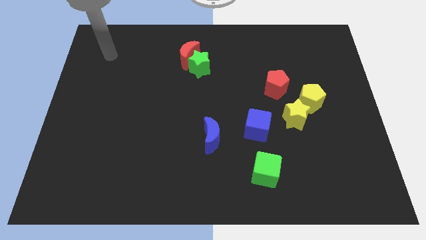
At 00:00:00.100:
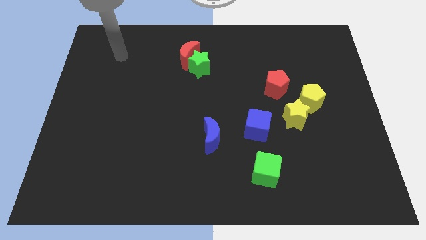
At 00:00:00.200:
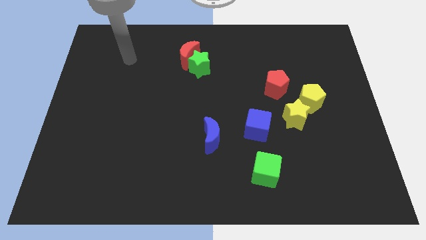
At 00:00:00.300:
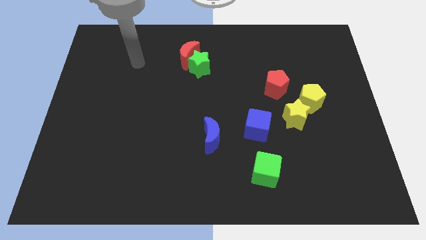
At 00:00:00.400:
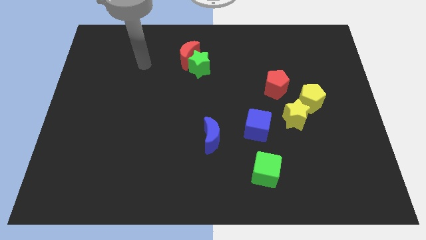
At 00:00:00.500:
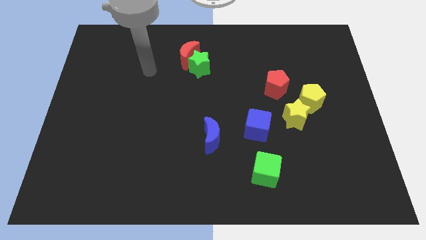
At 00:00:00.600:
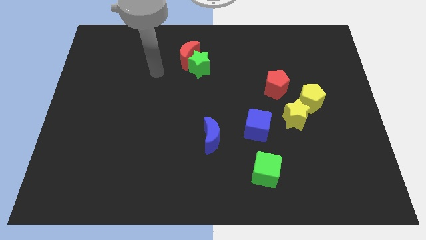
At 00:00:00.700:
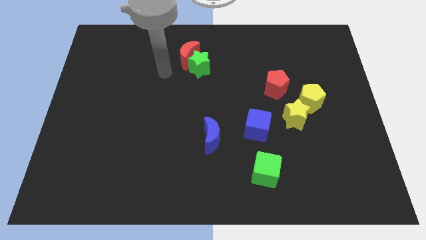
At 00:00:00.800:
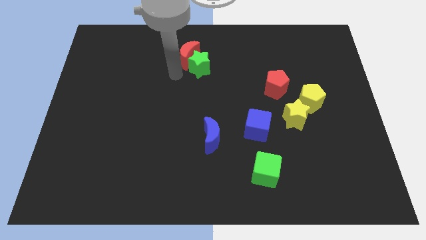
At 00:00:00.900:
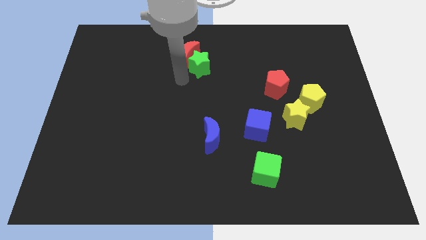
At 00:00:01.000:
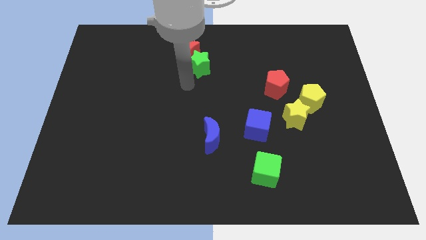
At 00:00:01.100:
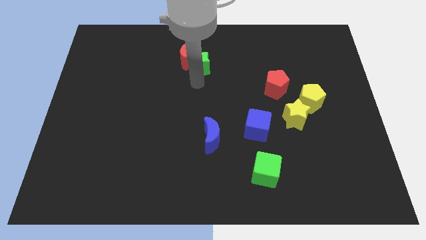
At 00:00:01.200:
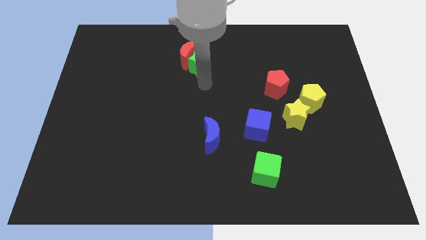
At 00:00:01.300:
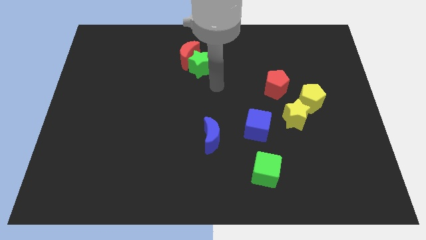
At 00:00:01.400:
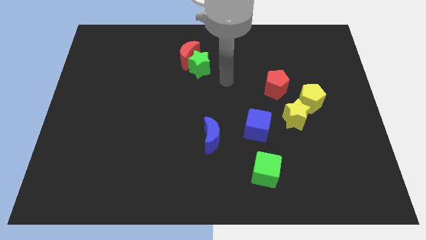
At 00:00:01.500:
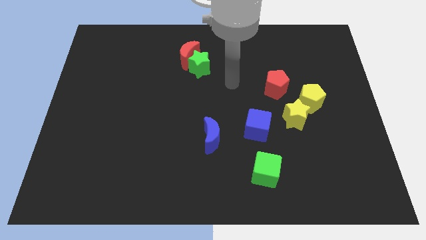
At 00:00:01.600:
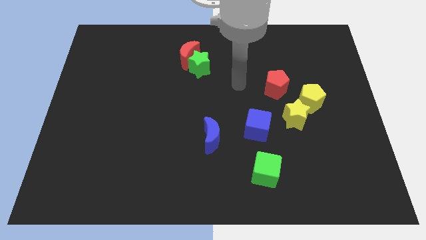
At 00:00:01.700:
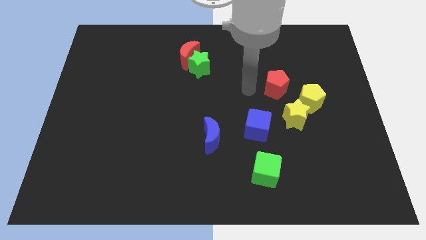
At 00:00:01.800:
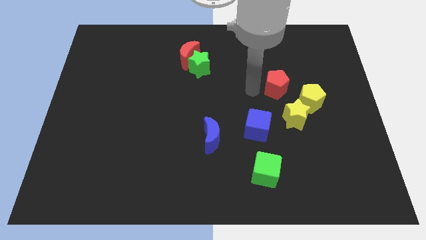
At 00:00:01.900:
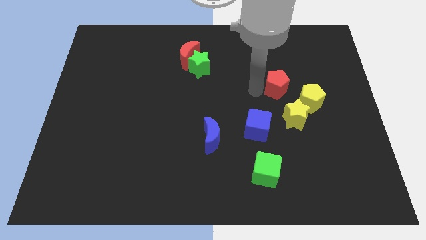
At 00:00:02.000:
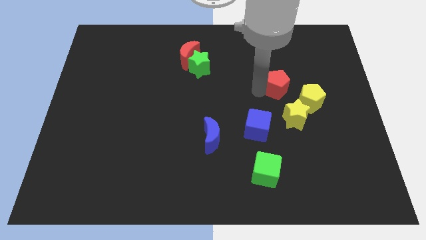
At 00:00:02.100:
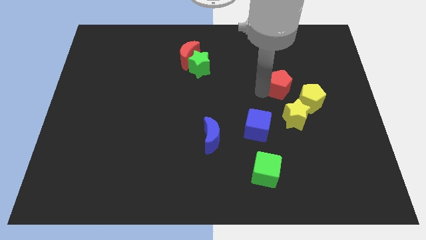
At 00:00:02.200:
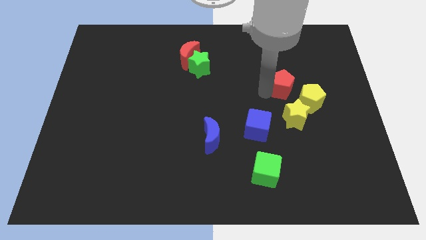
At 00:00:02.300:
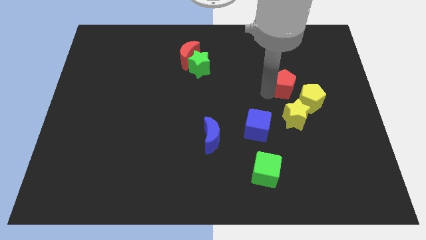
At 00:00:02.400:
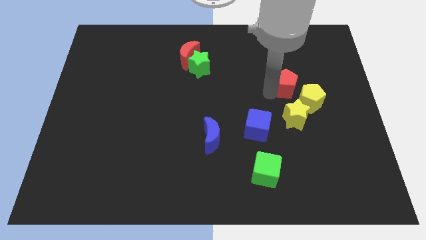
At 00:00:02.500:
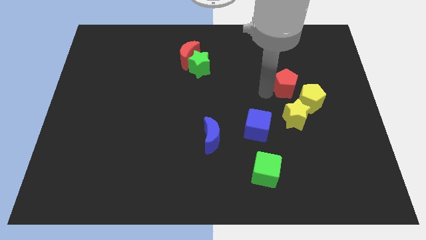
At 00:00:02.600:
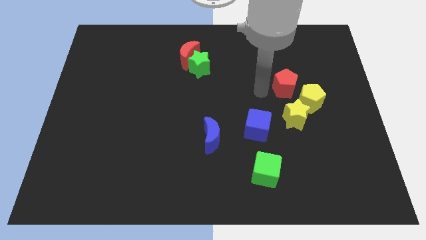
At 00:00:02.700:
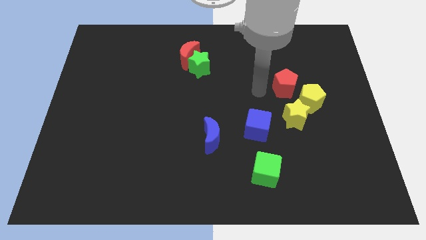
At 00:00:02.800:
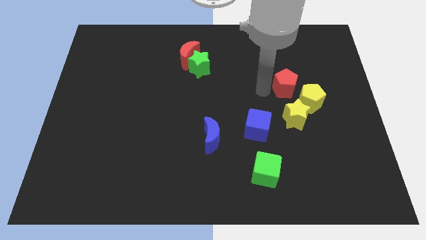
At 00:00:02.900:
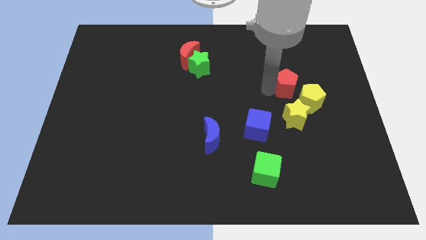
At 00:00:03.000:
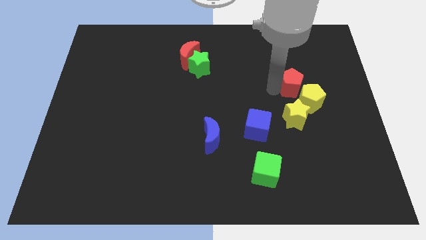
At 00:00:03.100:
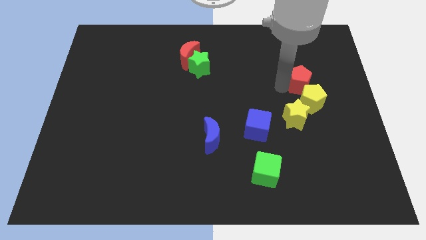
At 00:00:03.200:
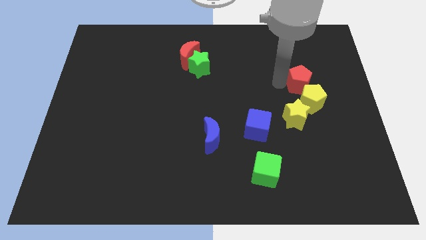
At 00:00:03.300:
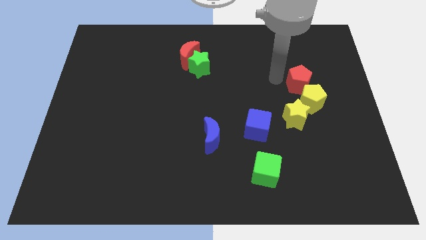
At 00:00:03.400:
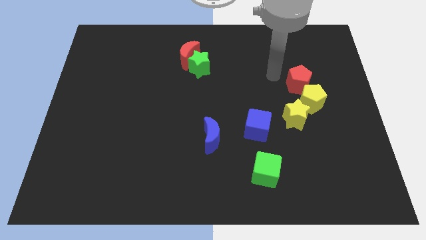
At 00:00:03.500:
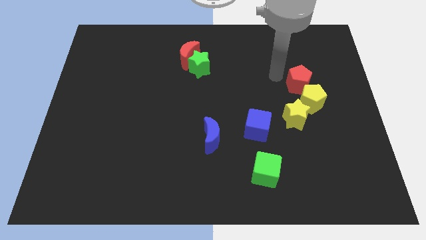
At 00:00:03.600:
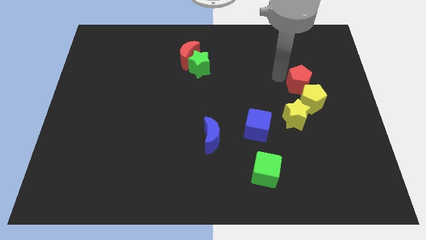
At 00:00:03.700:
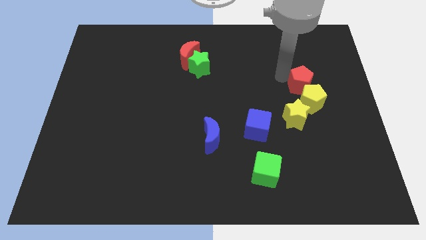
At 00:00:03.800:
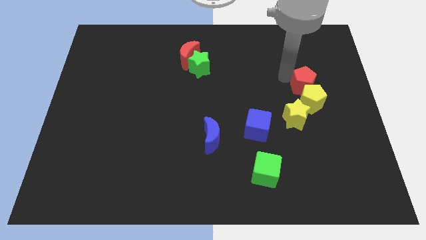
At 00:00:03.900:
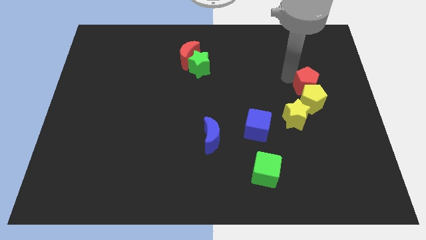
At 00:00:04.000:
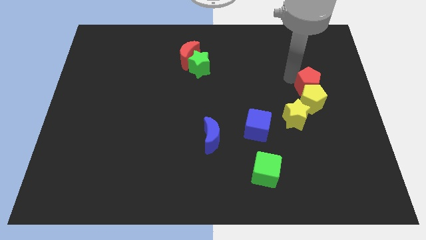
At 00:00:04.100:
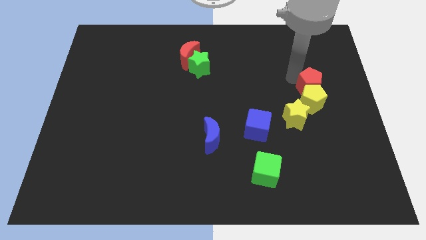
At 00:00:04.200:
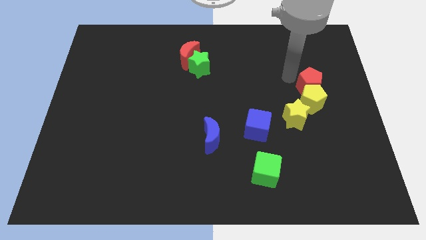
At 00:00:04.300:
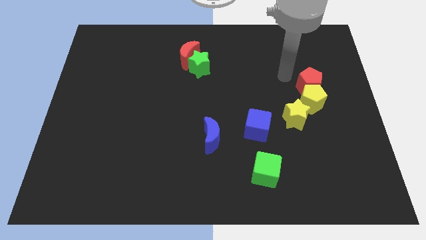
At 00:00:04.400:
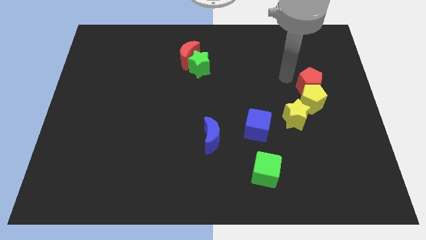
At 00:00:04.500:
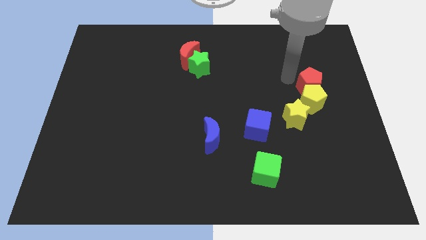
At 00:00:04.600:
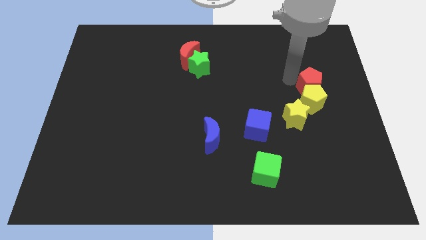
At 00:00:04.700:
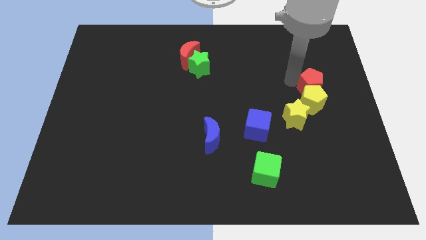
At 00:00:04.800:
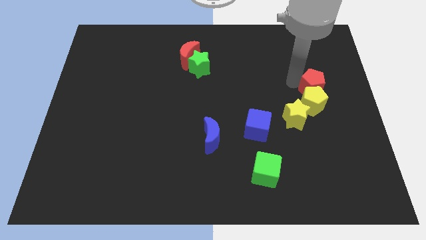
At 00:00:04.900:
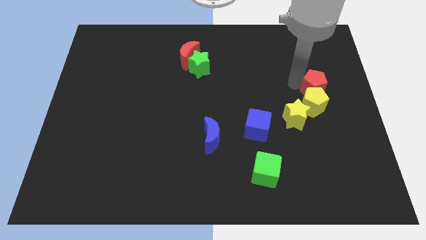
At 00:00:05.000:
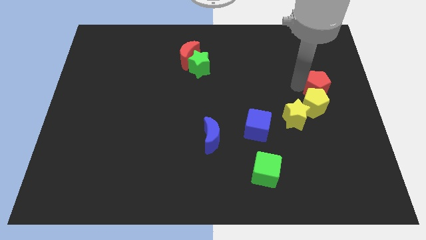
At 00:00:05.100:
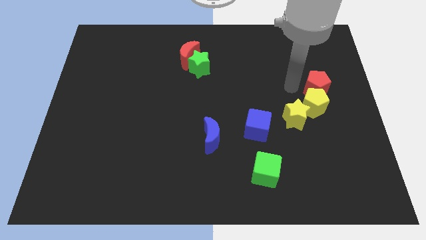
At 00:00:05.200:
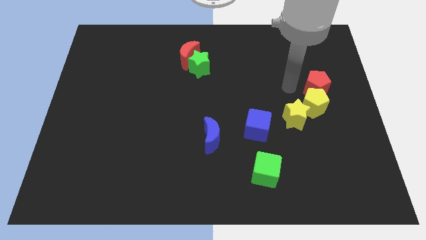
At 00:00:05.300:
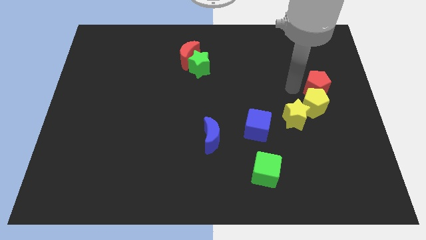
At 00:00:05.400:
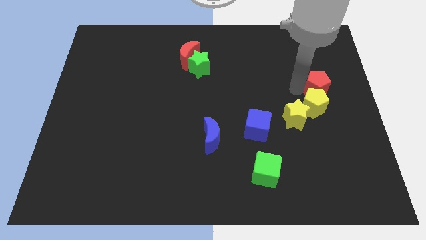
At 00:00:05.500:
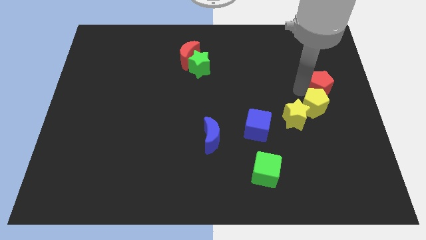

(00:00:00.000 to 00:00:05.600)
move the red pentagon to the center right

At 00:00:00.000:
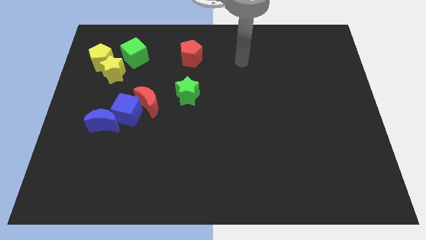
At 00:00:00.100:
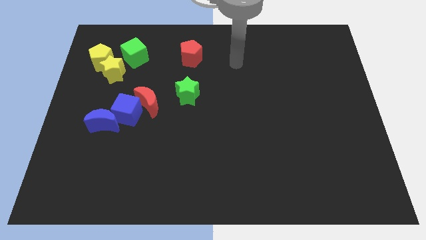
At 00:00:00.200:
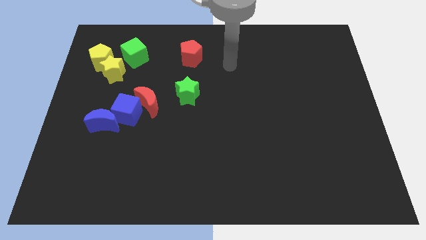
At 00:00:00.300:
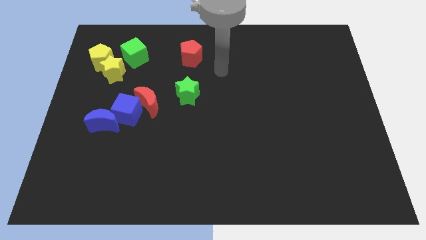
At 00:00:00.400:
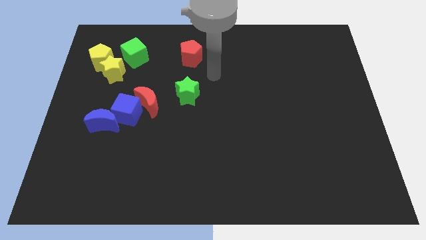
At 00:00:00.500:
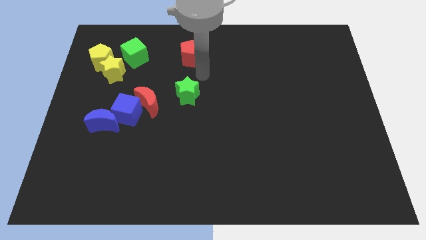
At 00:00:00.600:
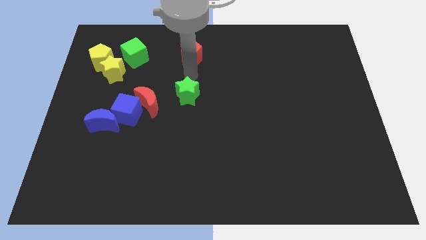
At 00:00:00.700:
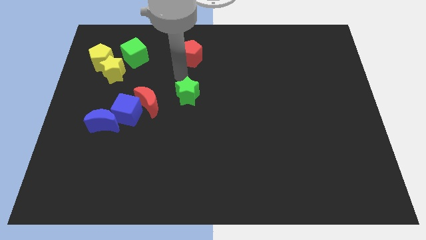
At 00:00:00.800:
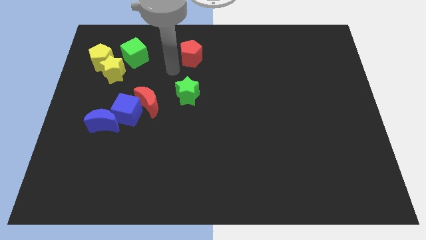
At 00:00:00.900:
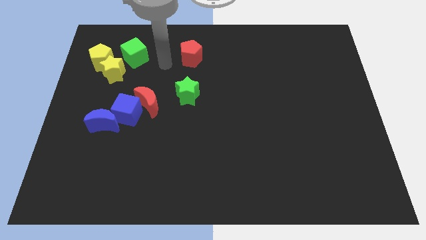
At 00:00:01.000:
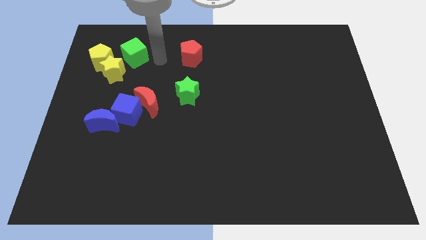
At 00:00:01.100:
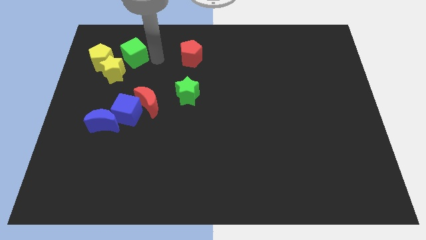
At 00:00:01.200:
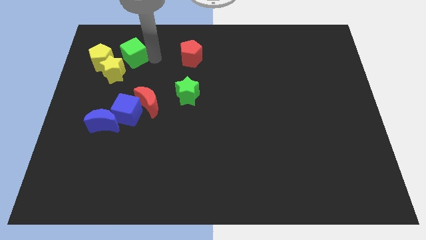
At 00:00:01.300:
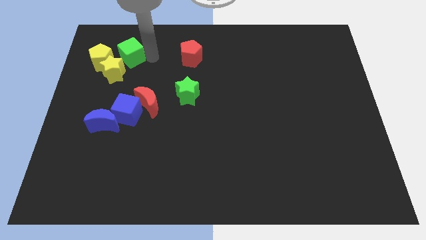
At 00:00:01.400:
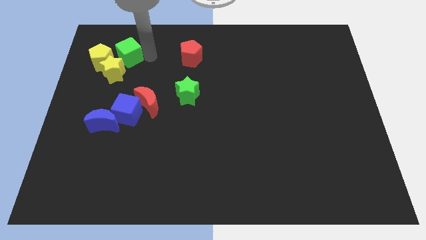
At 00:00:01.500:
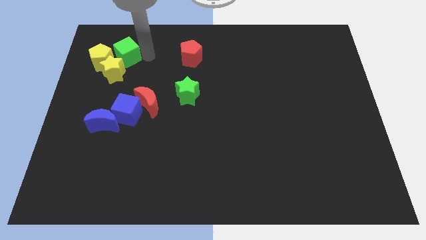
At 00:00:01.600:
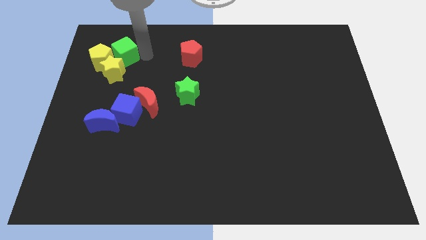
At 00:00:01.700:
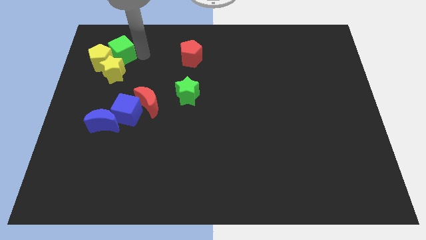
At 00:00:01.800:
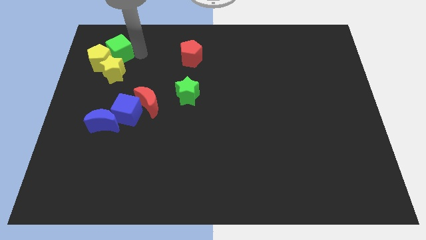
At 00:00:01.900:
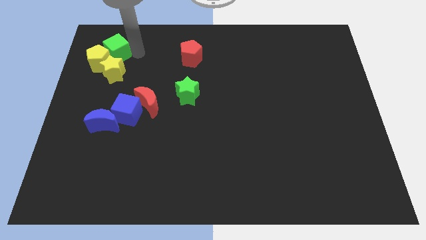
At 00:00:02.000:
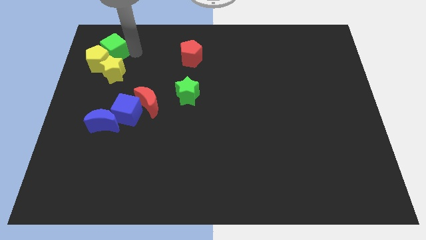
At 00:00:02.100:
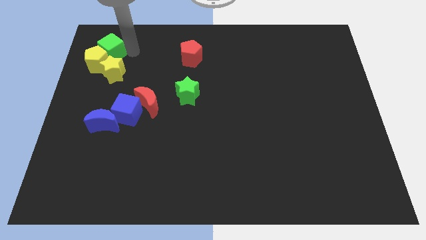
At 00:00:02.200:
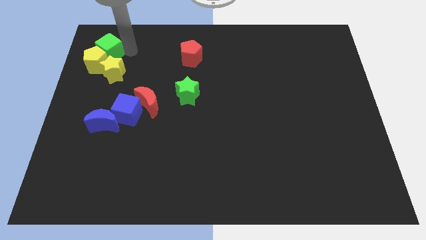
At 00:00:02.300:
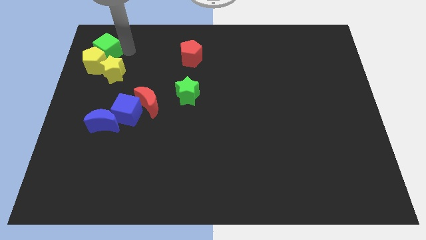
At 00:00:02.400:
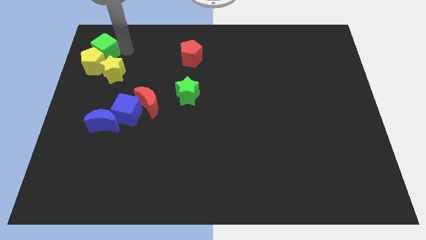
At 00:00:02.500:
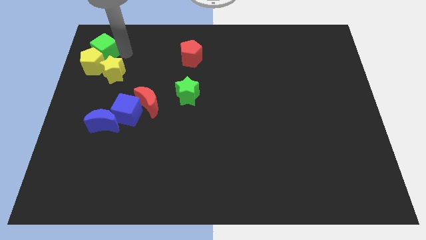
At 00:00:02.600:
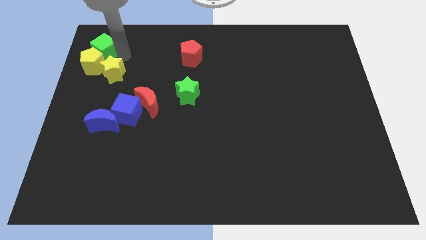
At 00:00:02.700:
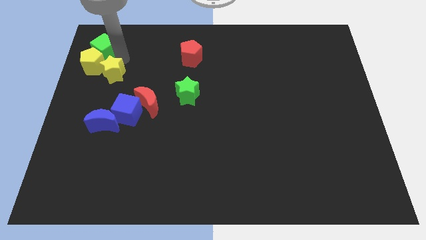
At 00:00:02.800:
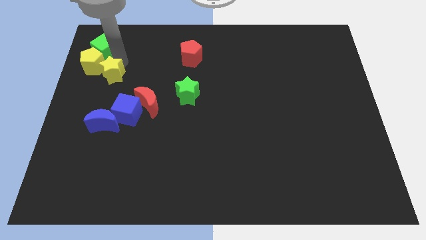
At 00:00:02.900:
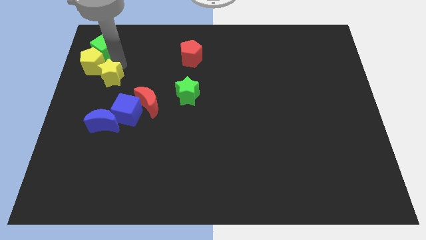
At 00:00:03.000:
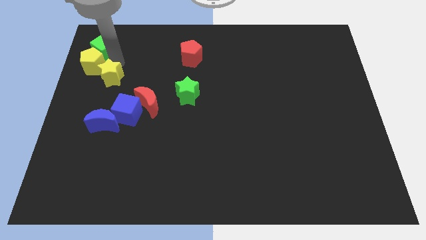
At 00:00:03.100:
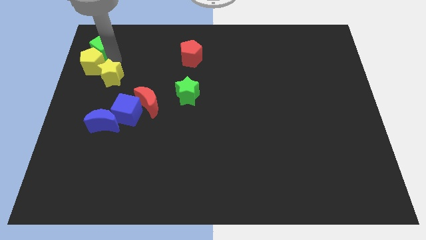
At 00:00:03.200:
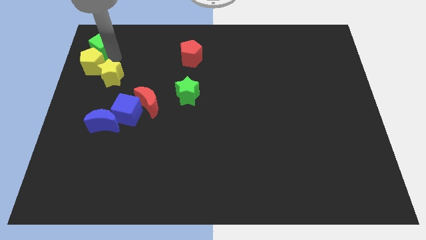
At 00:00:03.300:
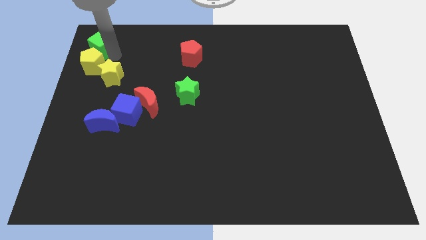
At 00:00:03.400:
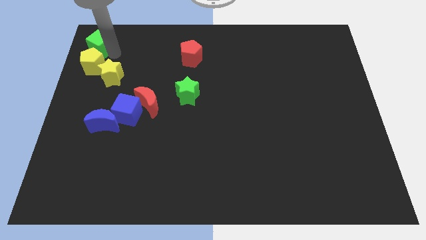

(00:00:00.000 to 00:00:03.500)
push the green cube to the top left
